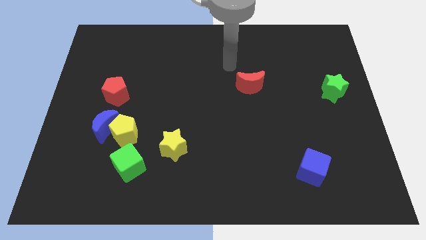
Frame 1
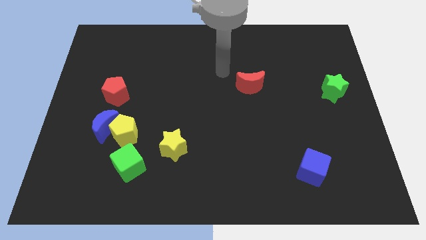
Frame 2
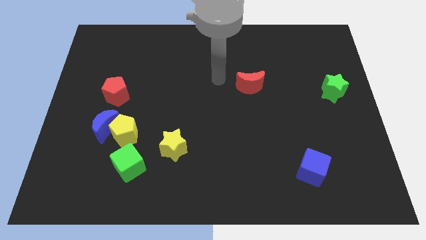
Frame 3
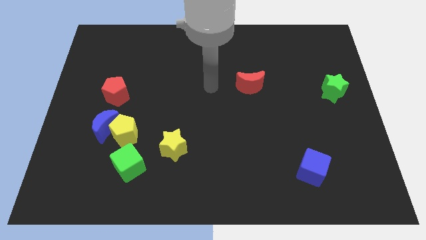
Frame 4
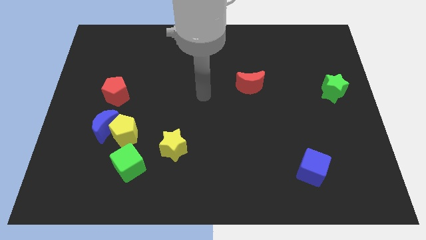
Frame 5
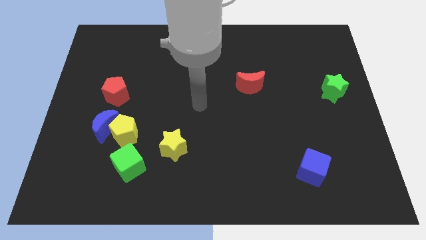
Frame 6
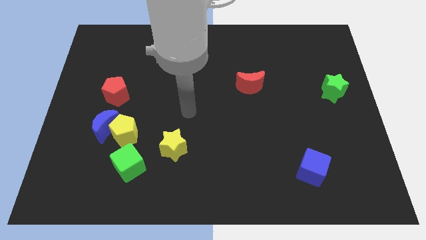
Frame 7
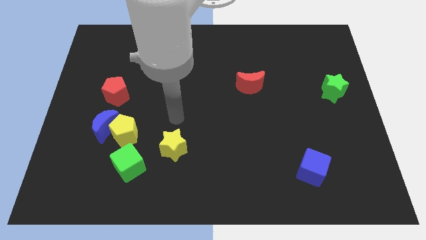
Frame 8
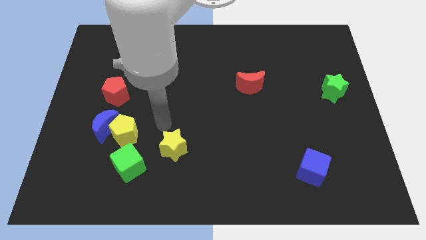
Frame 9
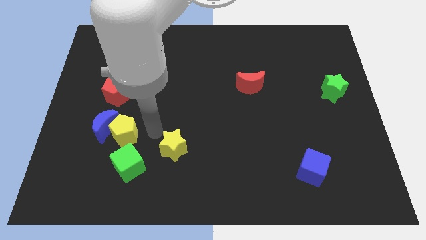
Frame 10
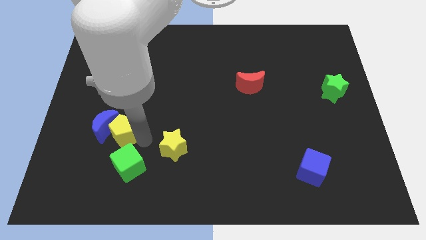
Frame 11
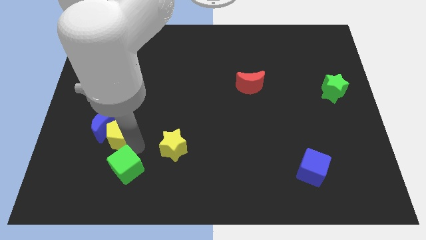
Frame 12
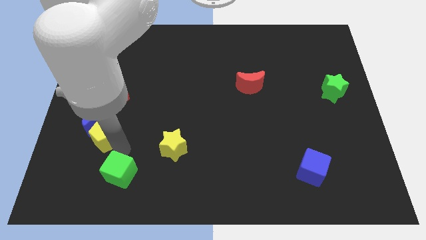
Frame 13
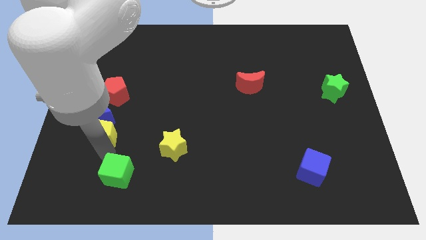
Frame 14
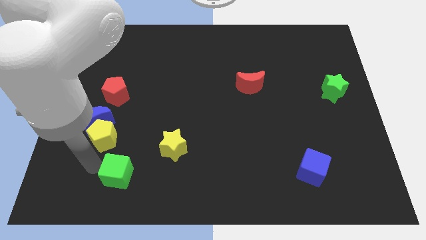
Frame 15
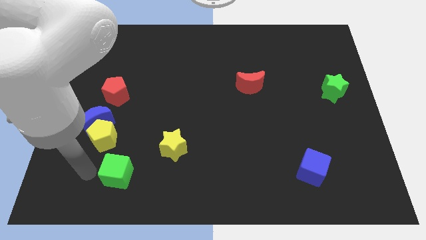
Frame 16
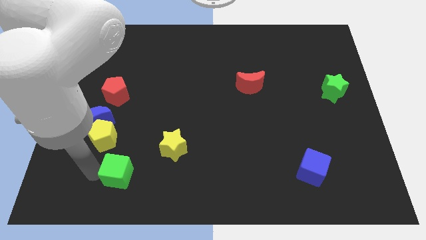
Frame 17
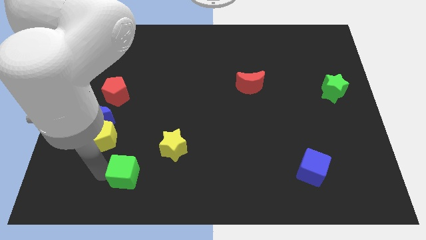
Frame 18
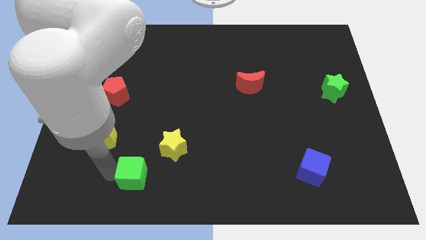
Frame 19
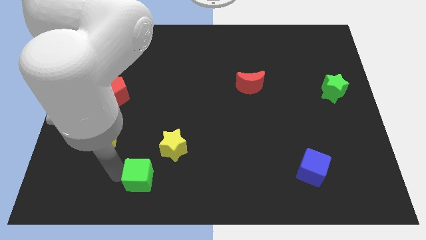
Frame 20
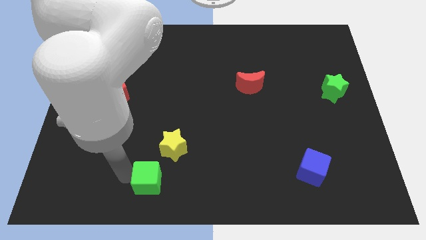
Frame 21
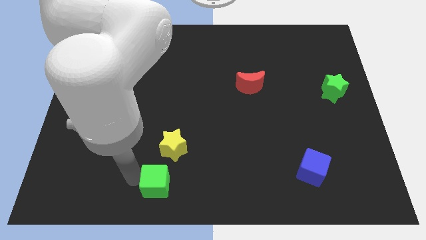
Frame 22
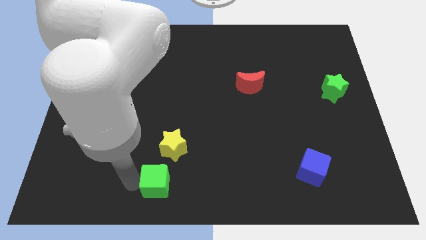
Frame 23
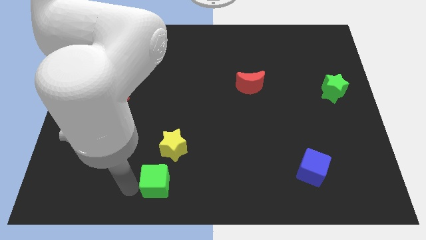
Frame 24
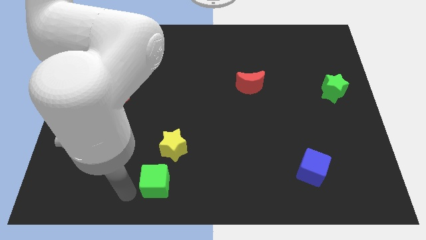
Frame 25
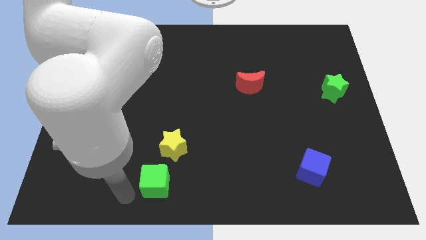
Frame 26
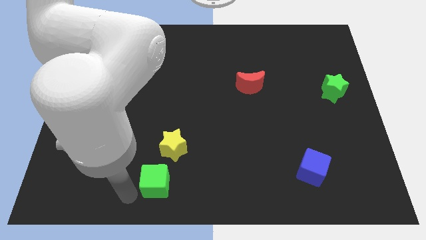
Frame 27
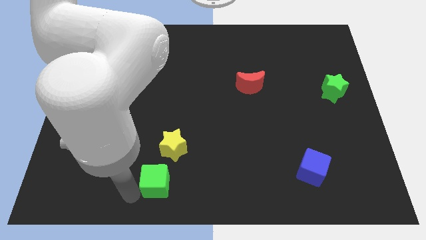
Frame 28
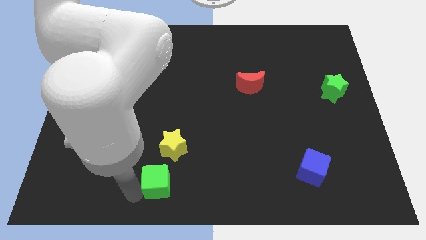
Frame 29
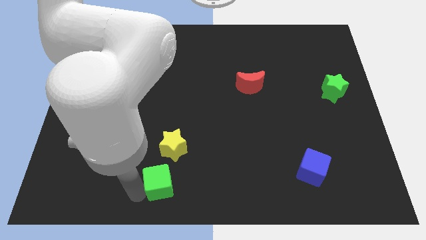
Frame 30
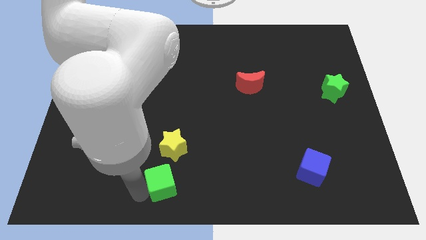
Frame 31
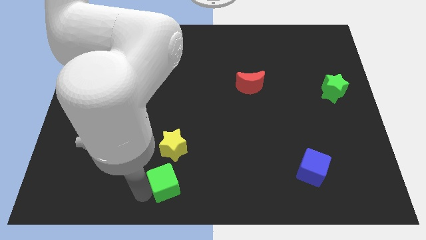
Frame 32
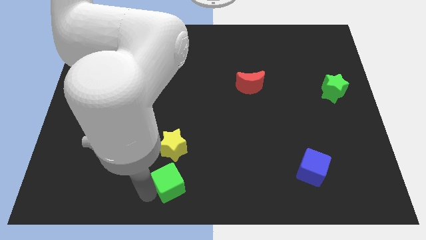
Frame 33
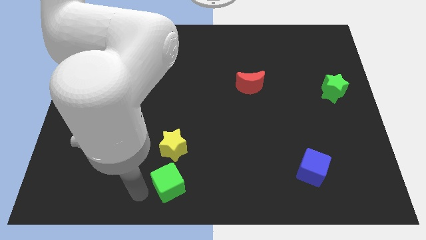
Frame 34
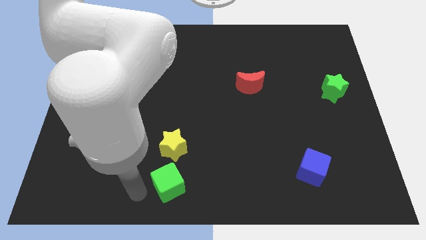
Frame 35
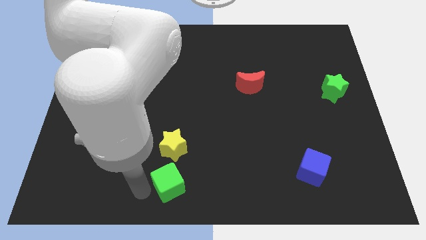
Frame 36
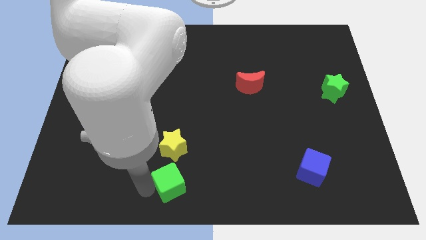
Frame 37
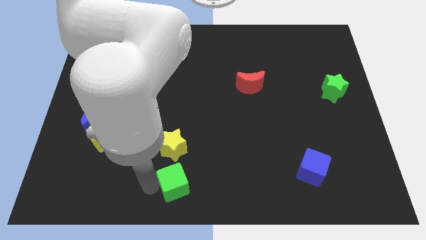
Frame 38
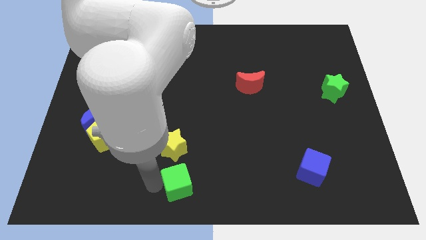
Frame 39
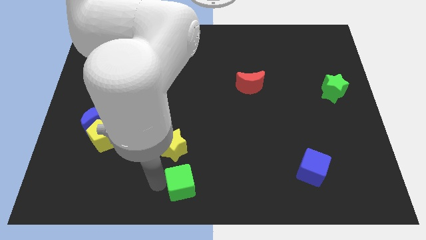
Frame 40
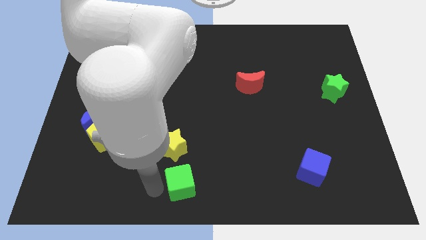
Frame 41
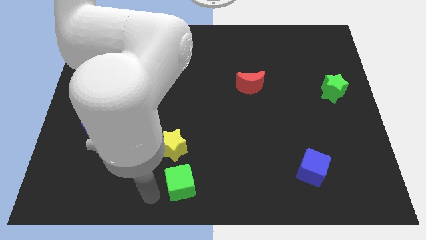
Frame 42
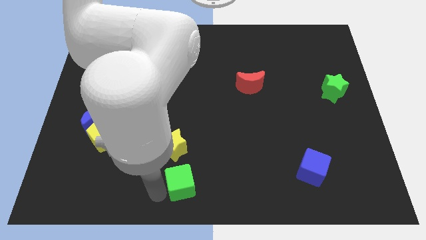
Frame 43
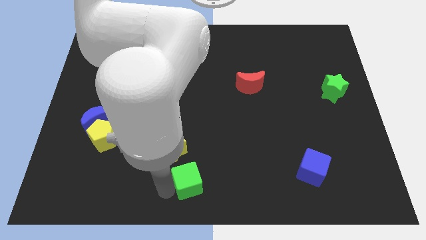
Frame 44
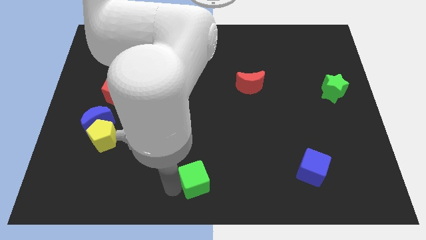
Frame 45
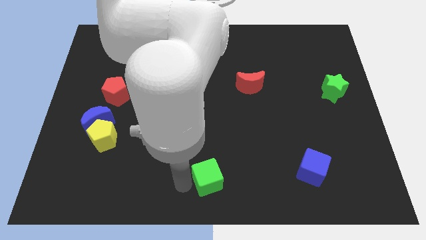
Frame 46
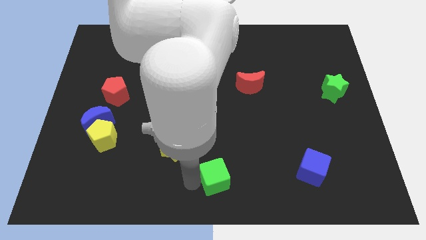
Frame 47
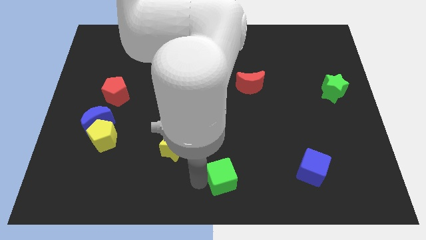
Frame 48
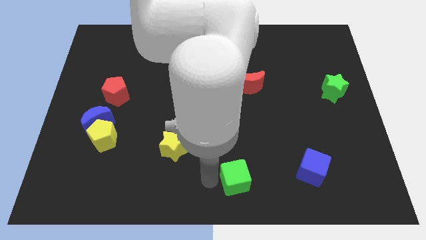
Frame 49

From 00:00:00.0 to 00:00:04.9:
push the green cube right

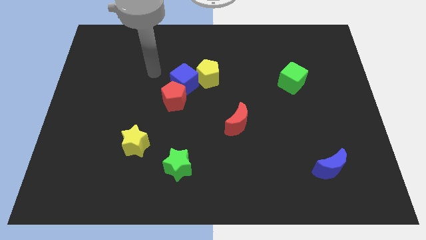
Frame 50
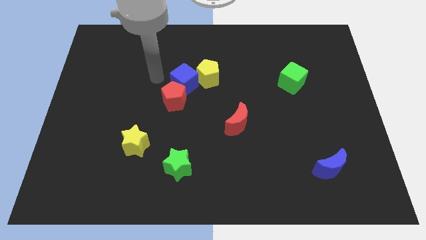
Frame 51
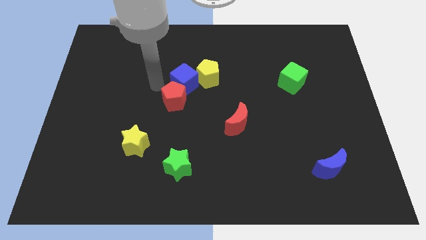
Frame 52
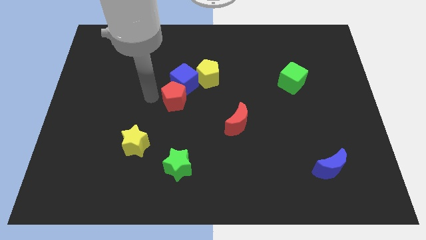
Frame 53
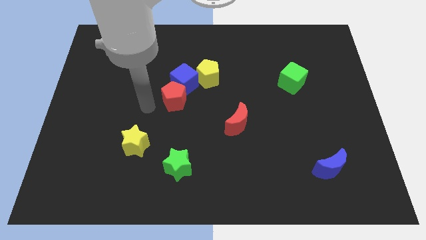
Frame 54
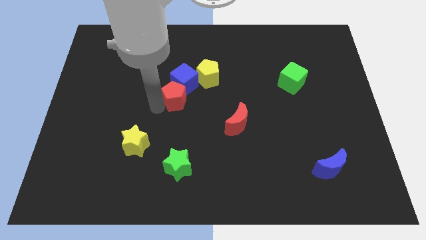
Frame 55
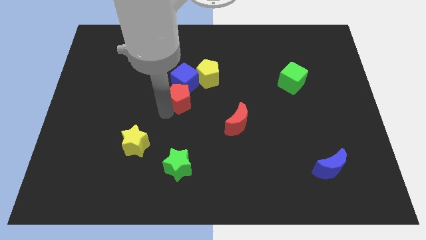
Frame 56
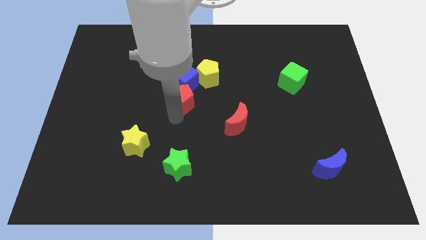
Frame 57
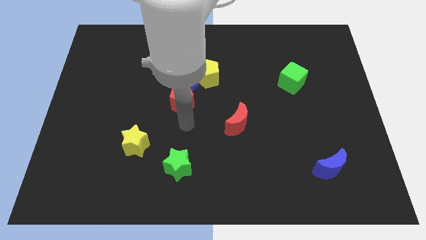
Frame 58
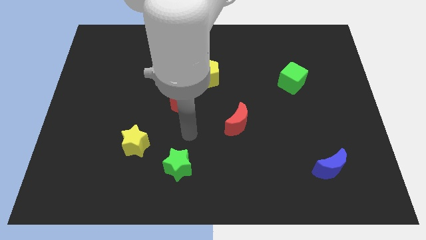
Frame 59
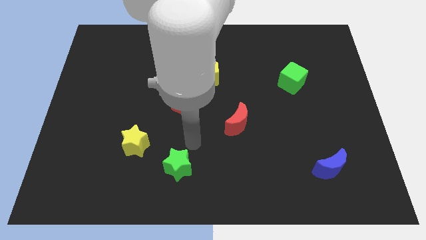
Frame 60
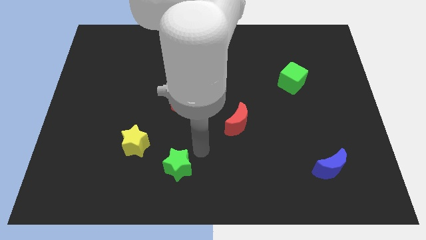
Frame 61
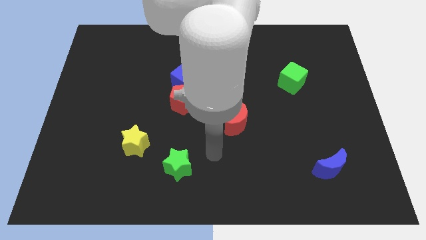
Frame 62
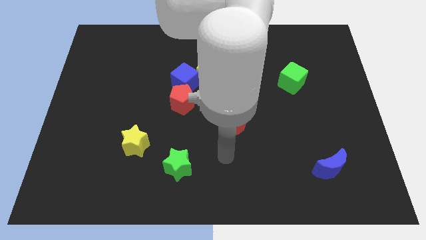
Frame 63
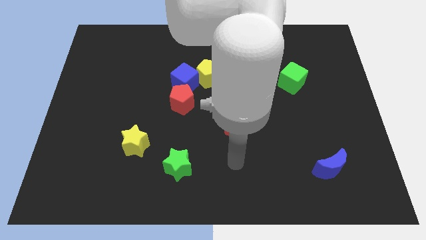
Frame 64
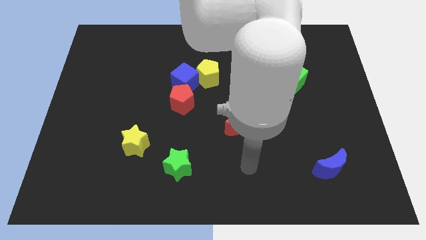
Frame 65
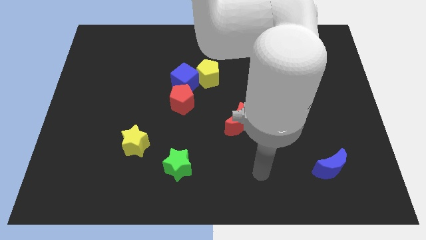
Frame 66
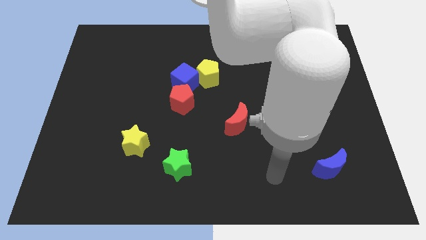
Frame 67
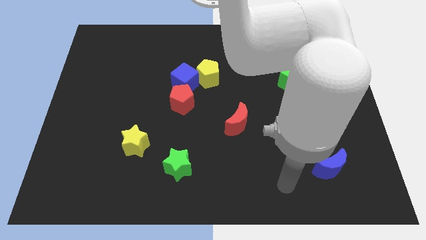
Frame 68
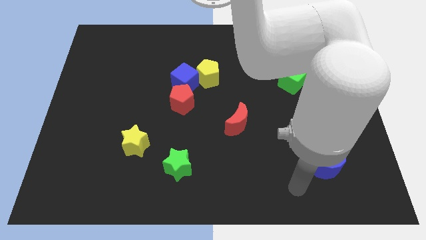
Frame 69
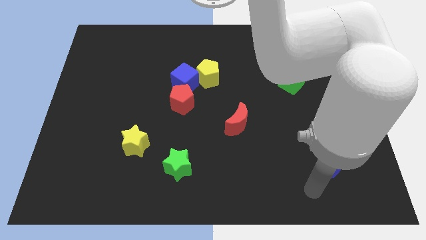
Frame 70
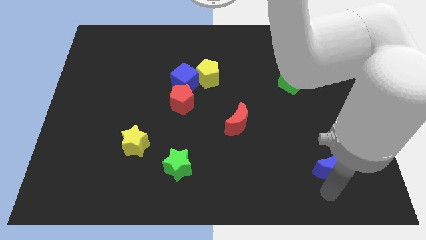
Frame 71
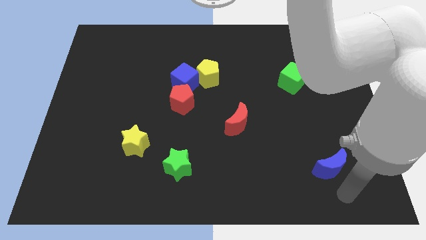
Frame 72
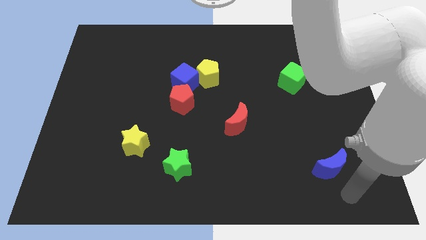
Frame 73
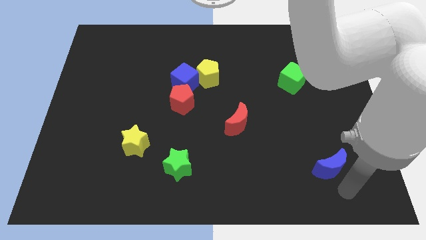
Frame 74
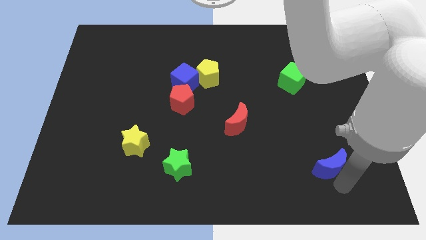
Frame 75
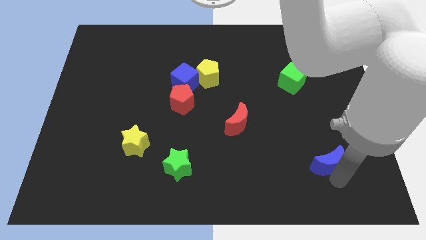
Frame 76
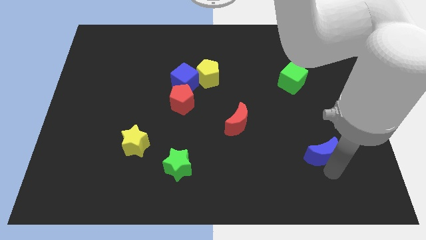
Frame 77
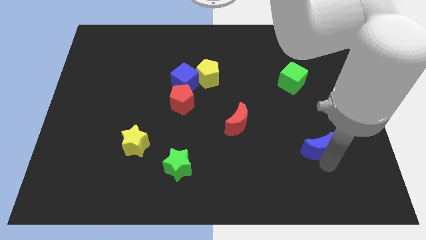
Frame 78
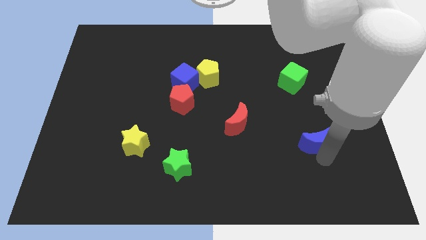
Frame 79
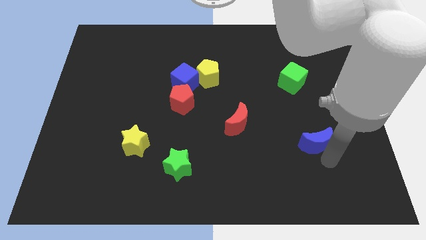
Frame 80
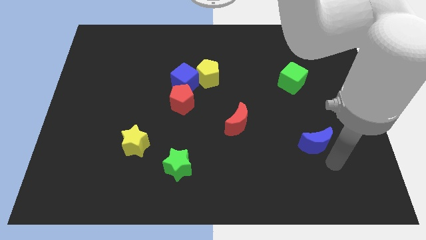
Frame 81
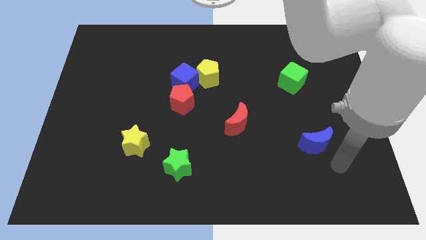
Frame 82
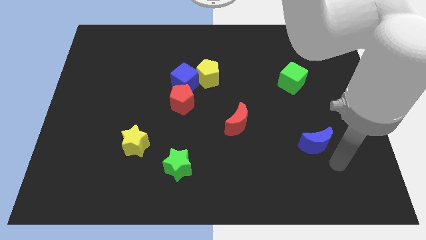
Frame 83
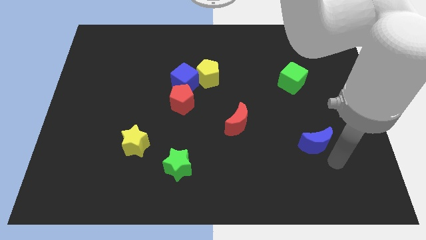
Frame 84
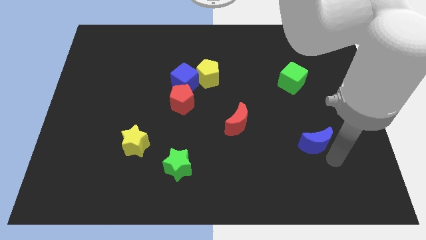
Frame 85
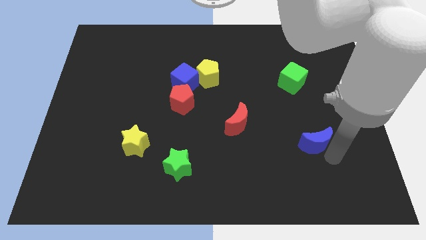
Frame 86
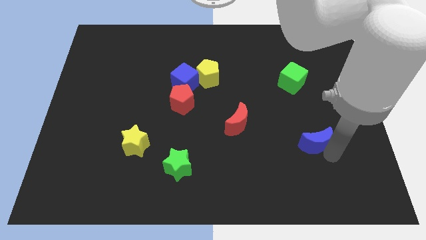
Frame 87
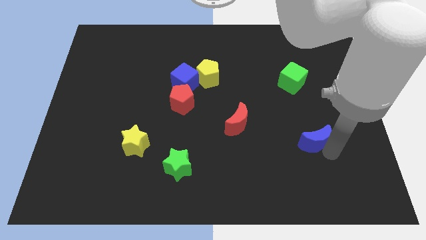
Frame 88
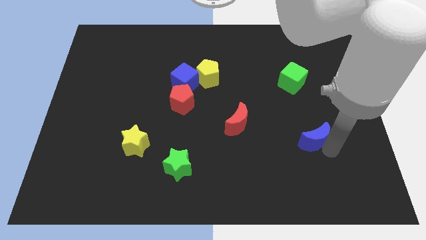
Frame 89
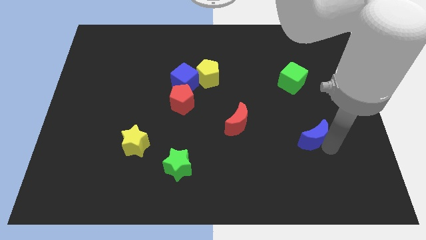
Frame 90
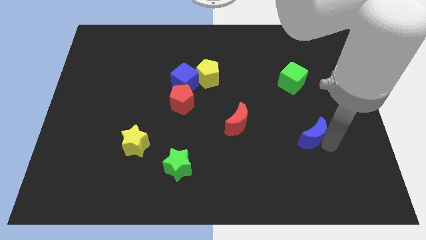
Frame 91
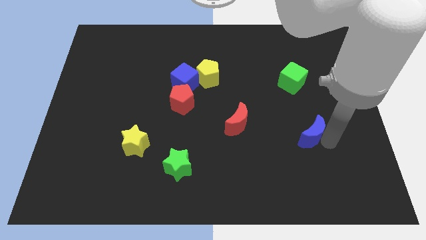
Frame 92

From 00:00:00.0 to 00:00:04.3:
push the blue moon slightly diagonally upwards and to the left
